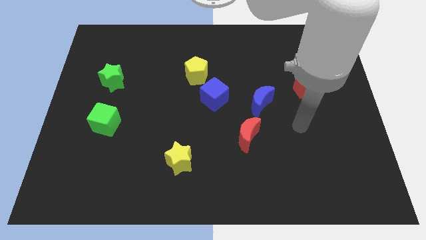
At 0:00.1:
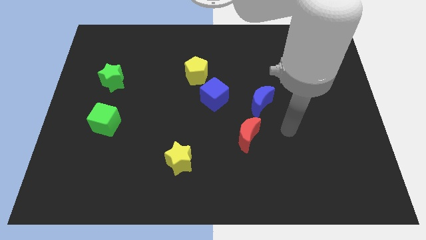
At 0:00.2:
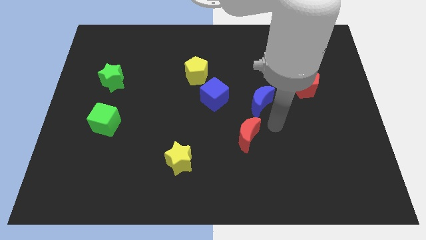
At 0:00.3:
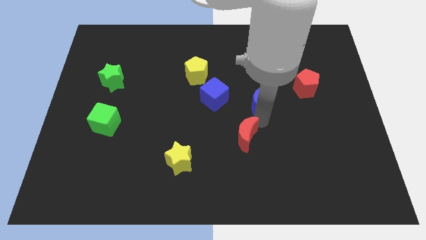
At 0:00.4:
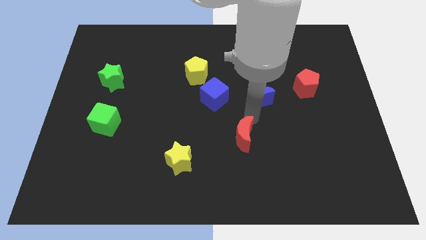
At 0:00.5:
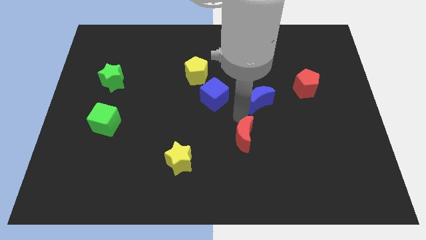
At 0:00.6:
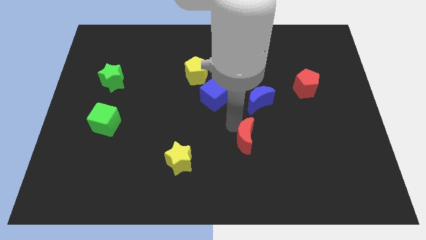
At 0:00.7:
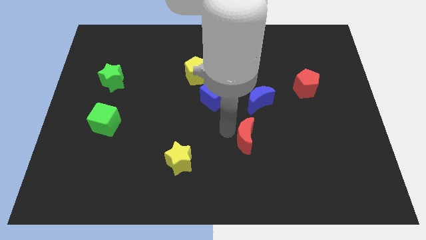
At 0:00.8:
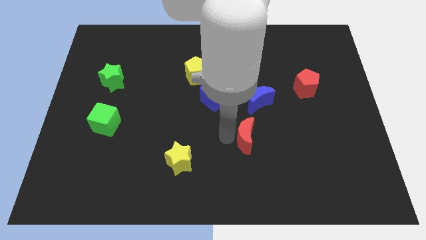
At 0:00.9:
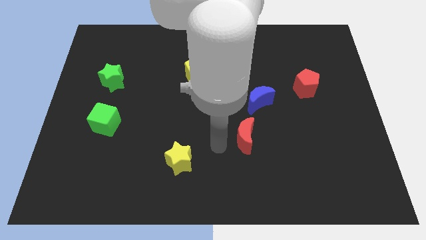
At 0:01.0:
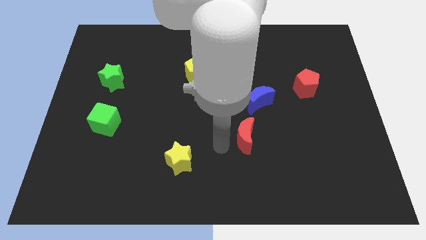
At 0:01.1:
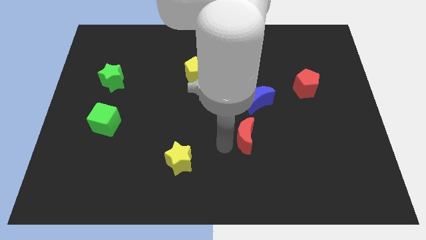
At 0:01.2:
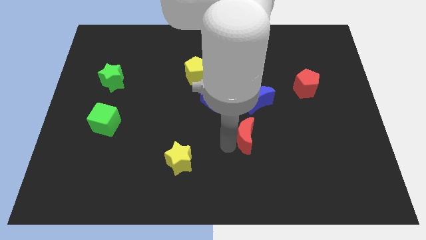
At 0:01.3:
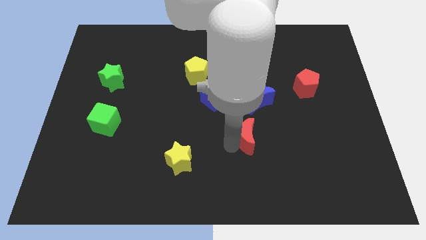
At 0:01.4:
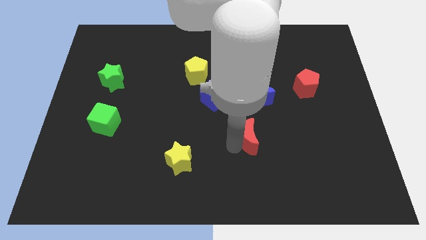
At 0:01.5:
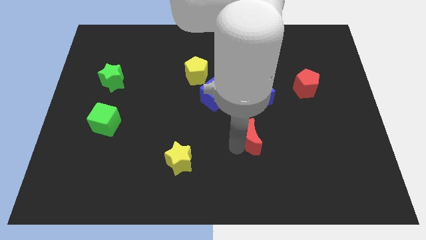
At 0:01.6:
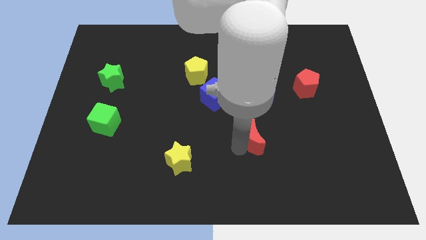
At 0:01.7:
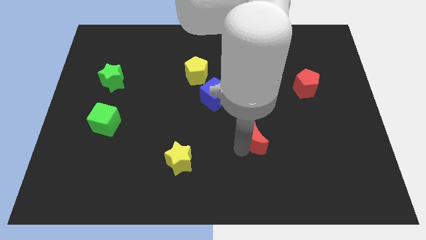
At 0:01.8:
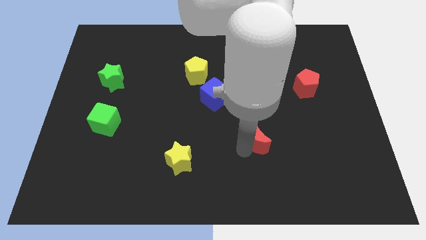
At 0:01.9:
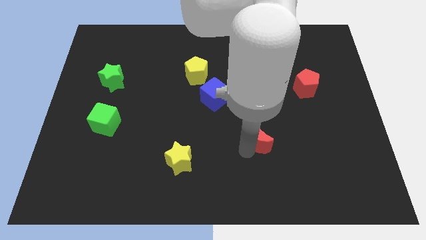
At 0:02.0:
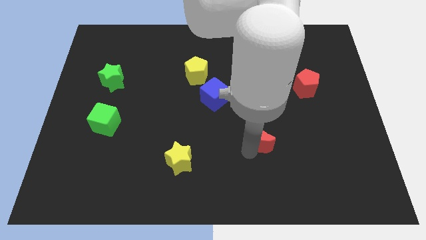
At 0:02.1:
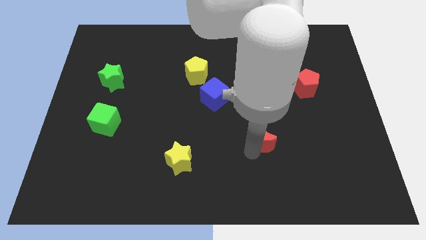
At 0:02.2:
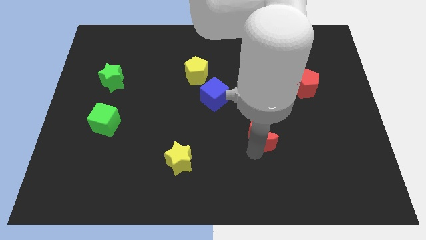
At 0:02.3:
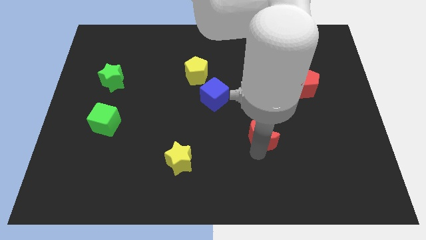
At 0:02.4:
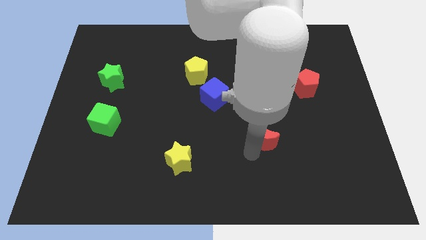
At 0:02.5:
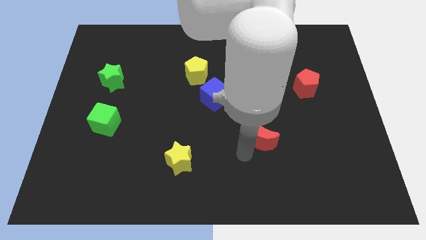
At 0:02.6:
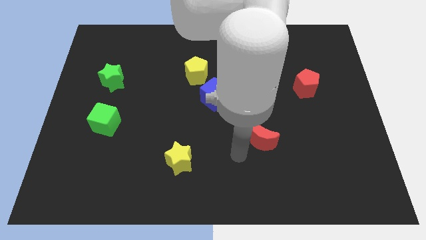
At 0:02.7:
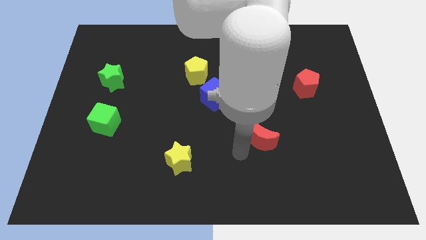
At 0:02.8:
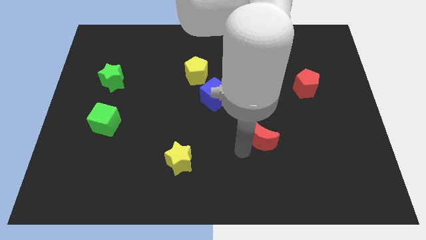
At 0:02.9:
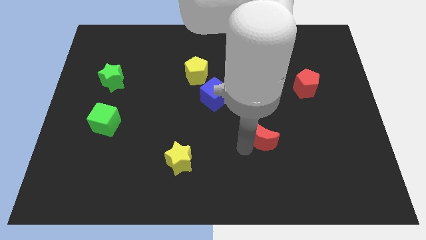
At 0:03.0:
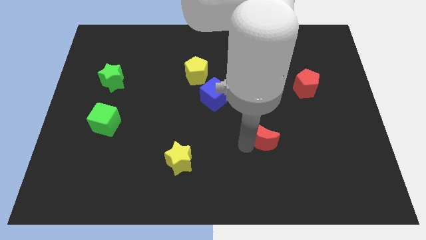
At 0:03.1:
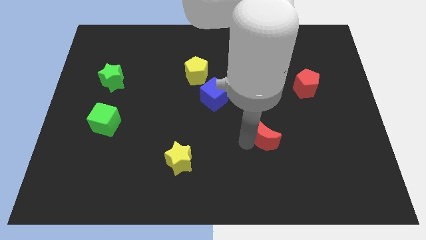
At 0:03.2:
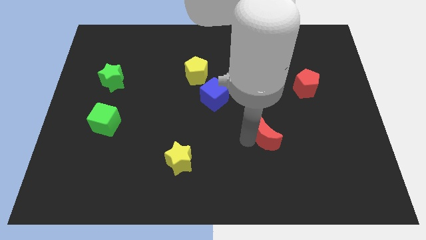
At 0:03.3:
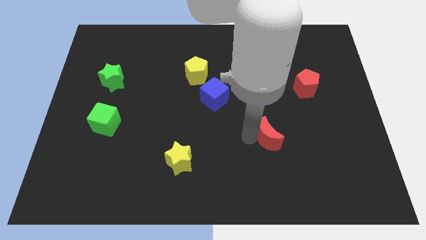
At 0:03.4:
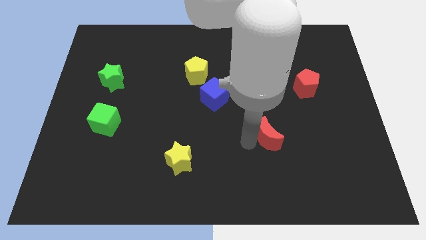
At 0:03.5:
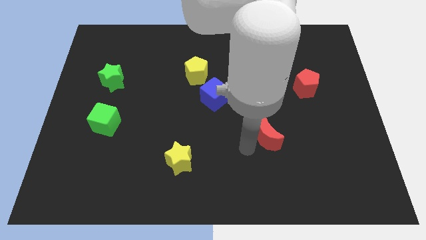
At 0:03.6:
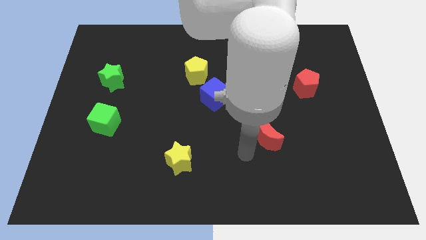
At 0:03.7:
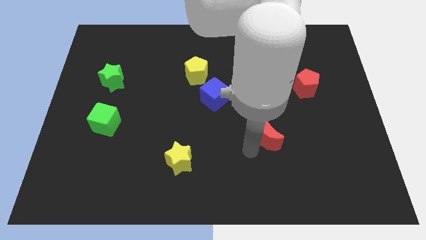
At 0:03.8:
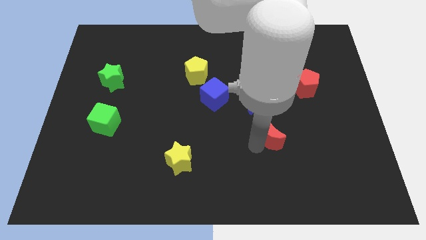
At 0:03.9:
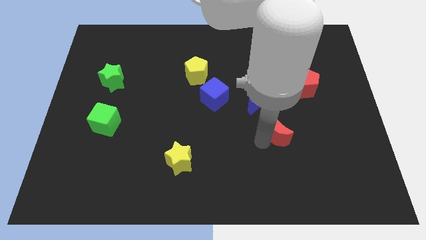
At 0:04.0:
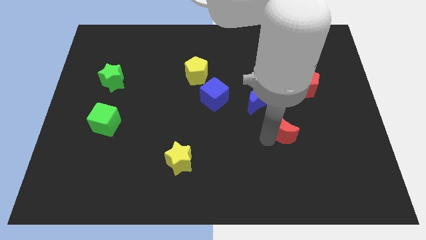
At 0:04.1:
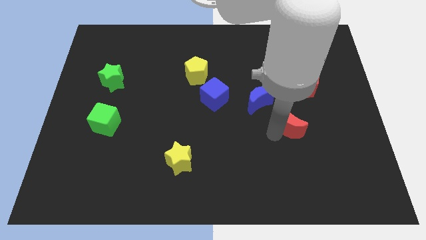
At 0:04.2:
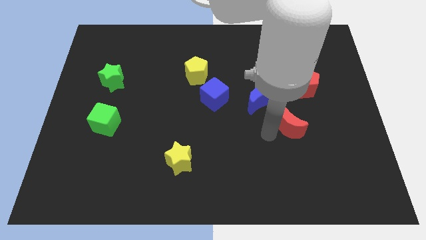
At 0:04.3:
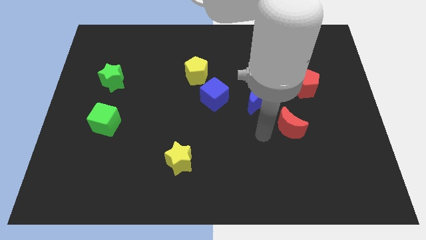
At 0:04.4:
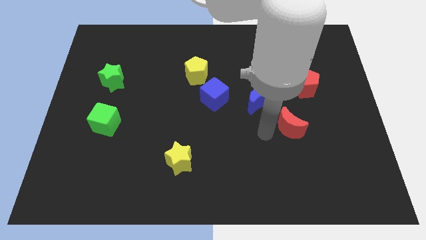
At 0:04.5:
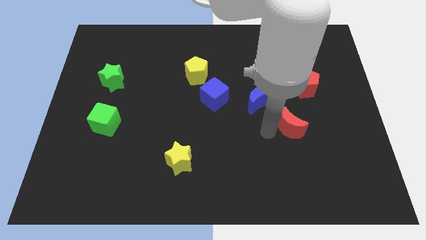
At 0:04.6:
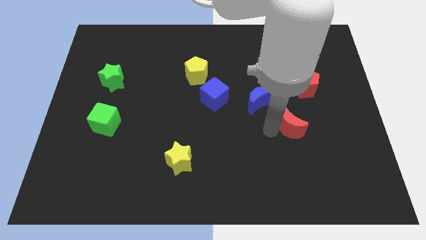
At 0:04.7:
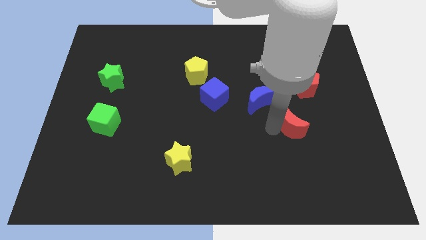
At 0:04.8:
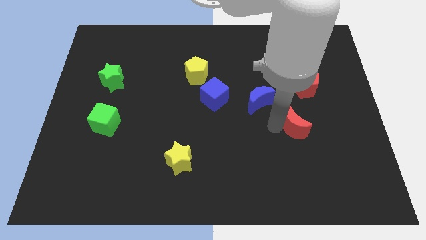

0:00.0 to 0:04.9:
slide the red moon to the bottom side of the red pentagon

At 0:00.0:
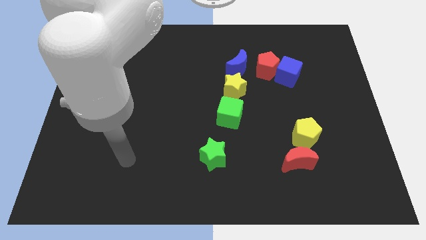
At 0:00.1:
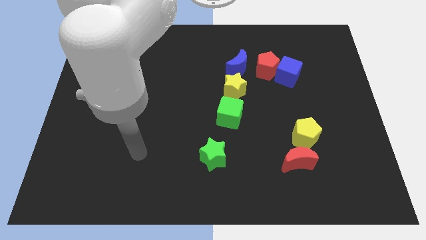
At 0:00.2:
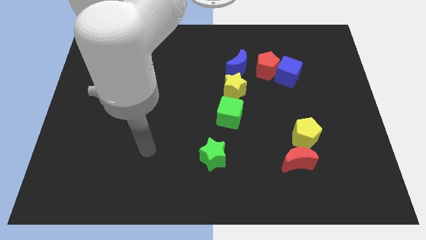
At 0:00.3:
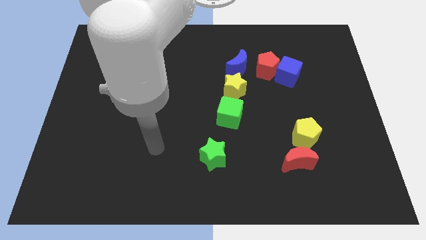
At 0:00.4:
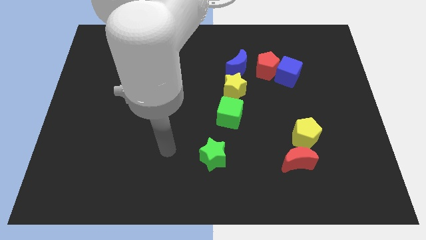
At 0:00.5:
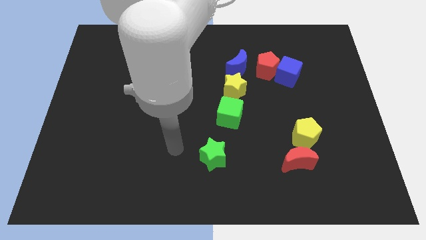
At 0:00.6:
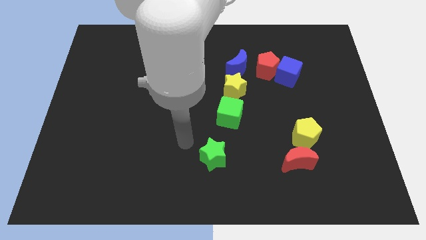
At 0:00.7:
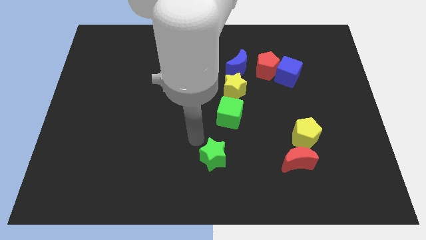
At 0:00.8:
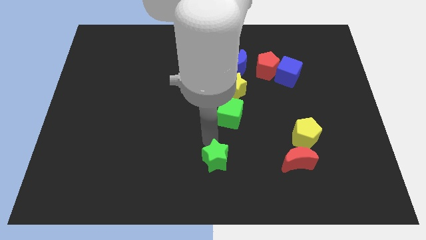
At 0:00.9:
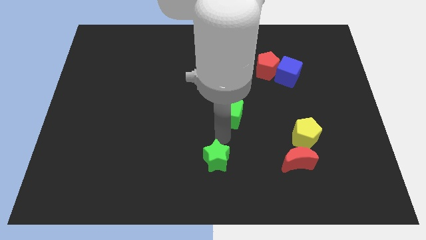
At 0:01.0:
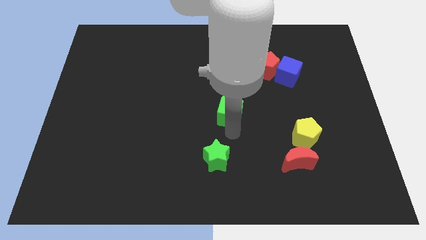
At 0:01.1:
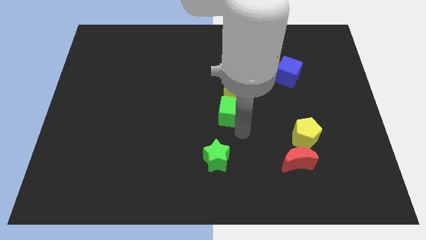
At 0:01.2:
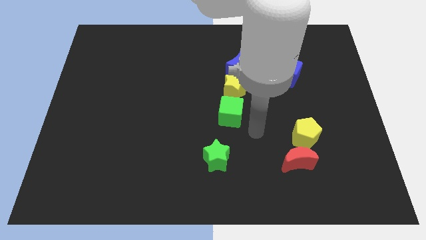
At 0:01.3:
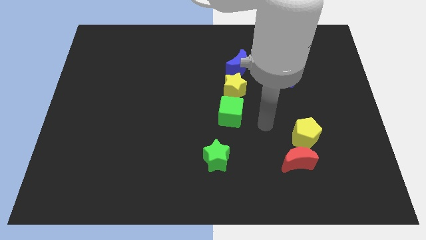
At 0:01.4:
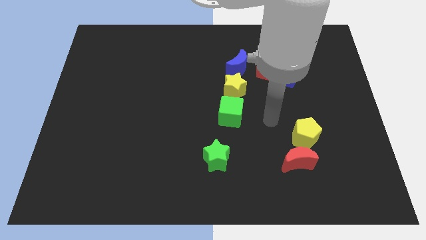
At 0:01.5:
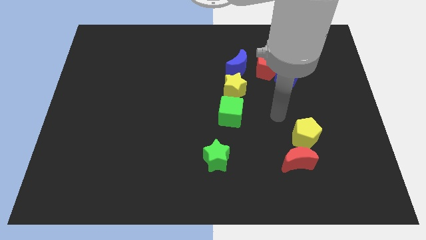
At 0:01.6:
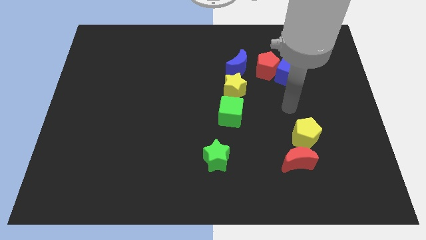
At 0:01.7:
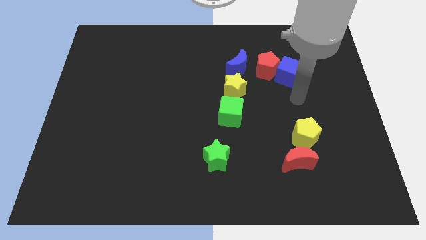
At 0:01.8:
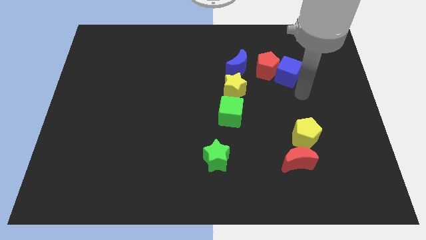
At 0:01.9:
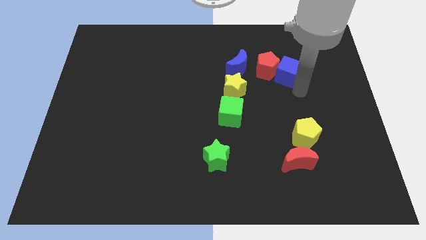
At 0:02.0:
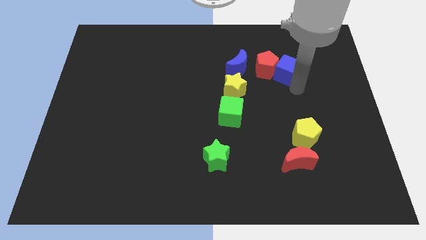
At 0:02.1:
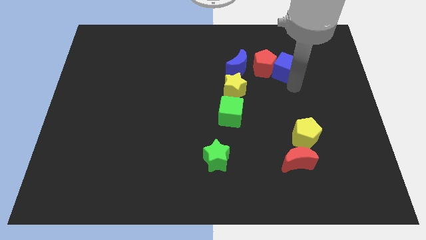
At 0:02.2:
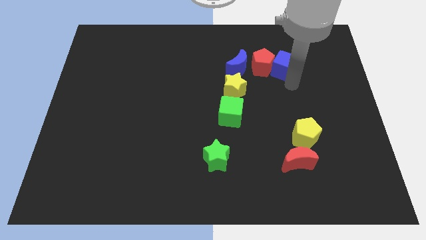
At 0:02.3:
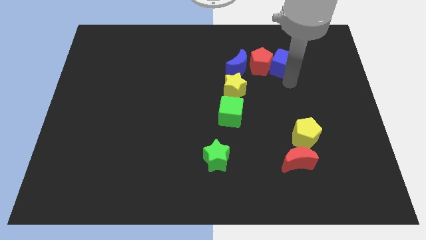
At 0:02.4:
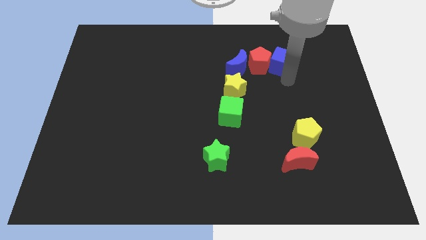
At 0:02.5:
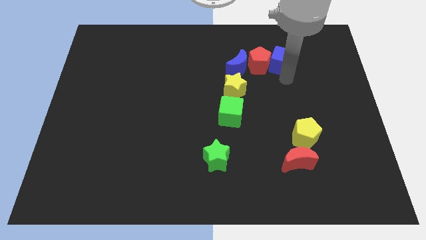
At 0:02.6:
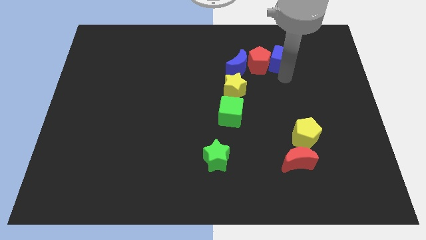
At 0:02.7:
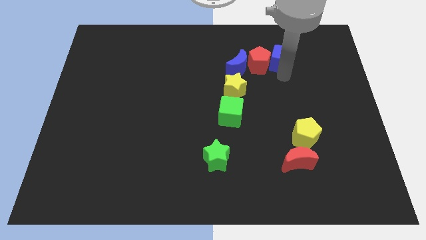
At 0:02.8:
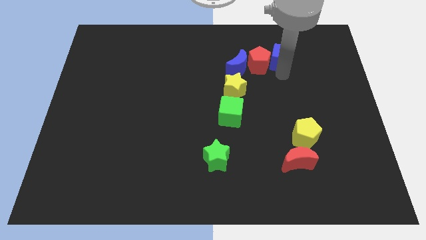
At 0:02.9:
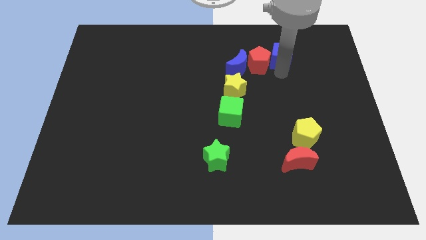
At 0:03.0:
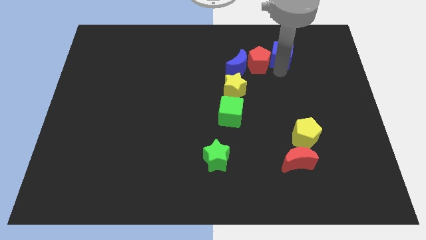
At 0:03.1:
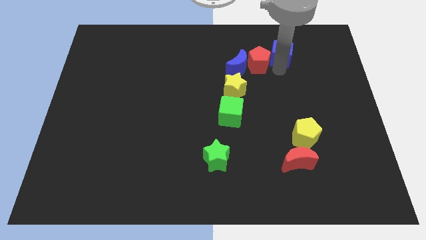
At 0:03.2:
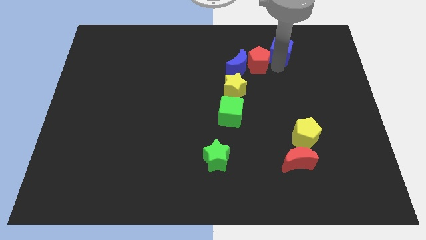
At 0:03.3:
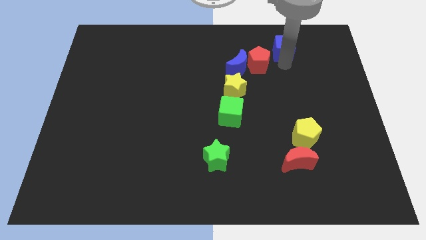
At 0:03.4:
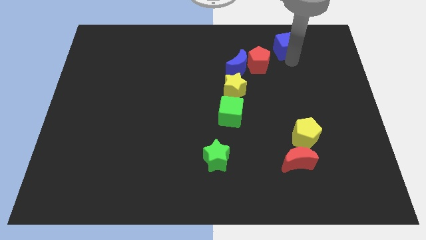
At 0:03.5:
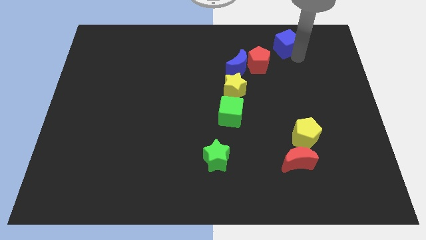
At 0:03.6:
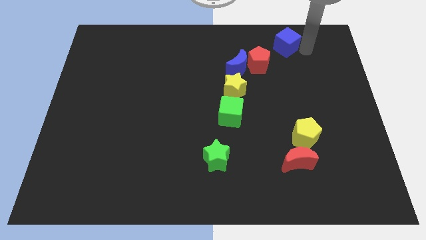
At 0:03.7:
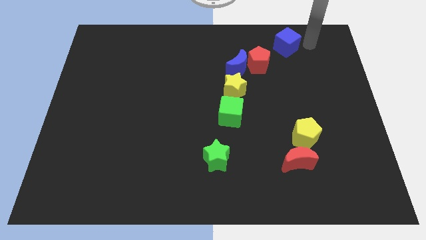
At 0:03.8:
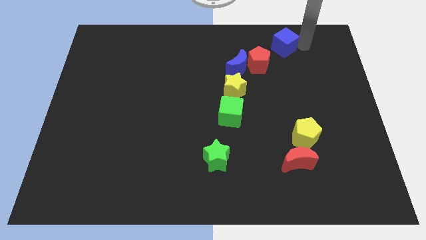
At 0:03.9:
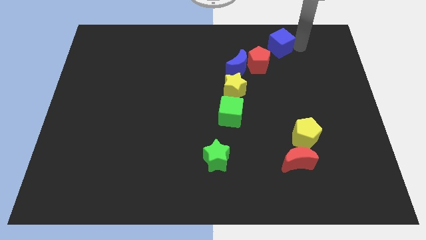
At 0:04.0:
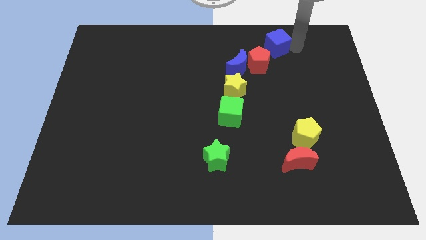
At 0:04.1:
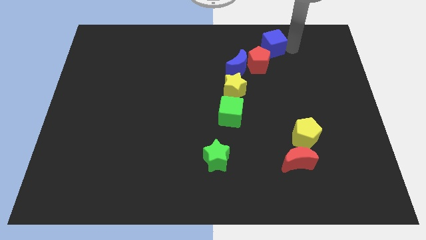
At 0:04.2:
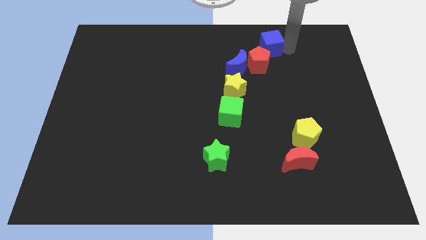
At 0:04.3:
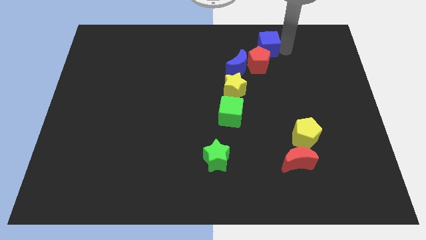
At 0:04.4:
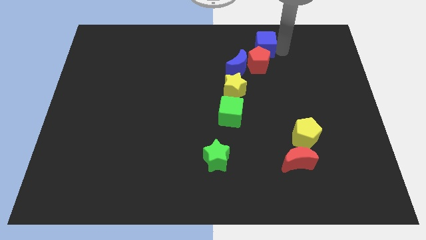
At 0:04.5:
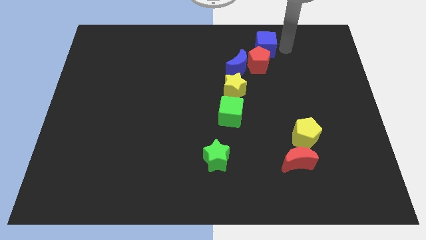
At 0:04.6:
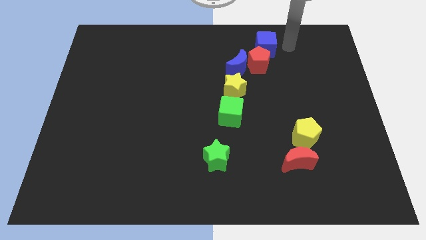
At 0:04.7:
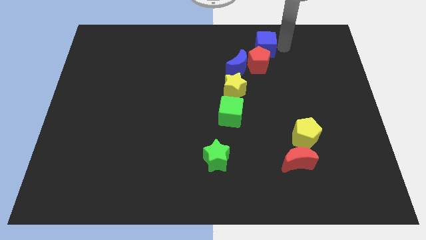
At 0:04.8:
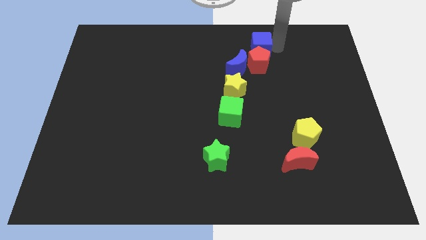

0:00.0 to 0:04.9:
push the blue cube diagonally up and to the left of the red pentagon
